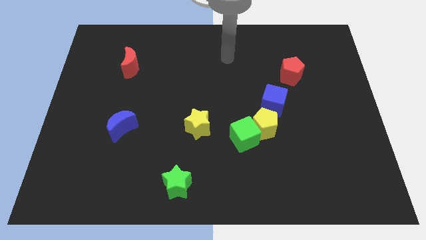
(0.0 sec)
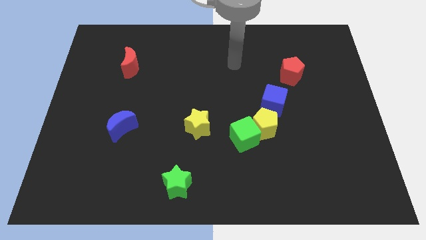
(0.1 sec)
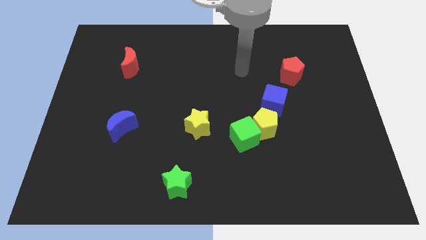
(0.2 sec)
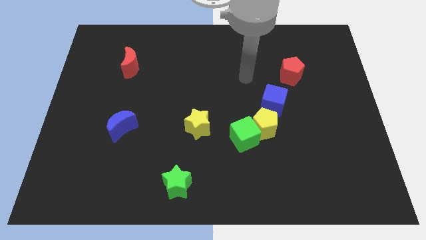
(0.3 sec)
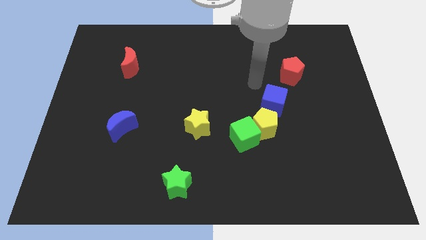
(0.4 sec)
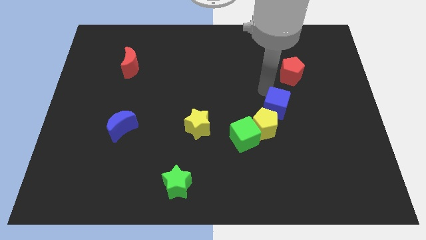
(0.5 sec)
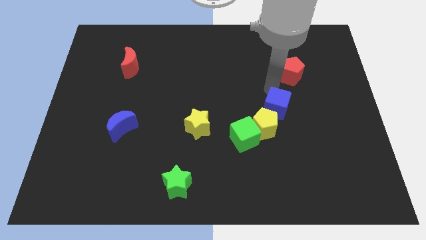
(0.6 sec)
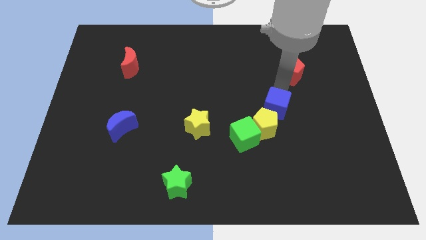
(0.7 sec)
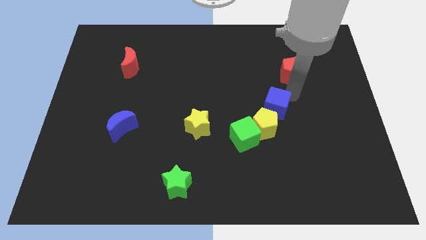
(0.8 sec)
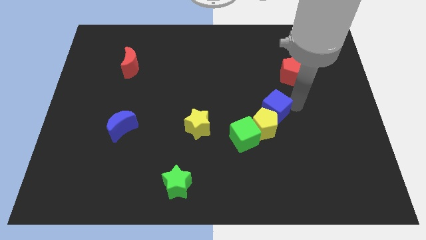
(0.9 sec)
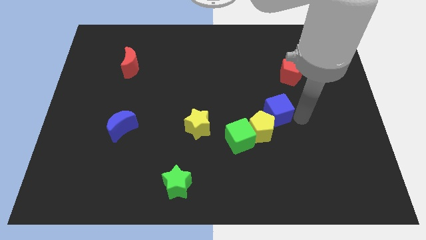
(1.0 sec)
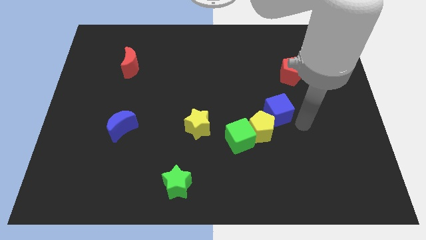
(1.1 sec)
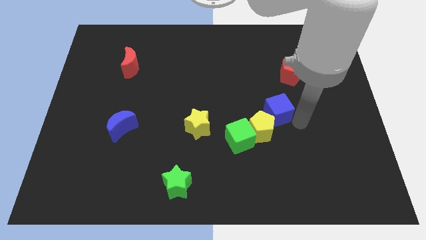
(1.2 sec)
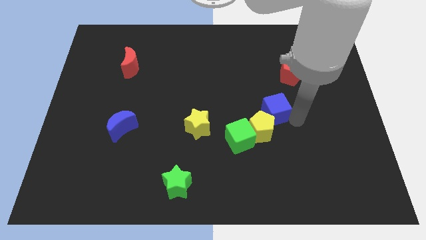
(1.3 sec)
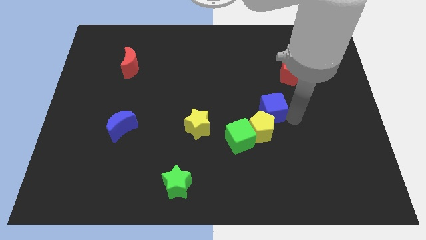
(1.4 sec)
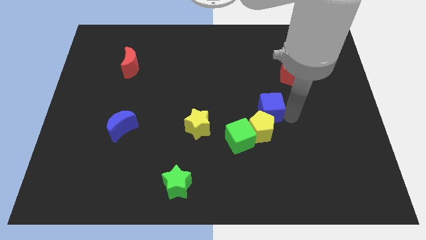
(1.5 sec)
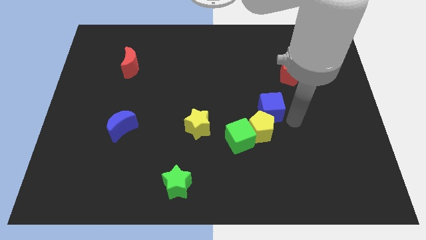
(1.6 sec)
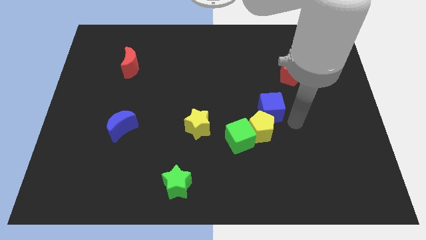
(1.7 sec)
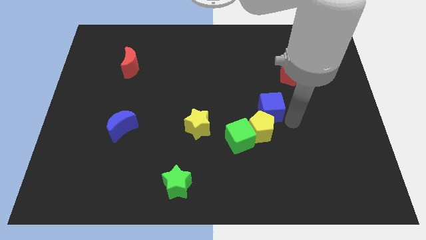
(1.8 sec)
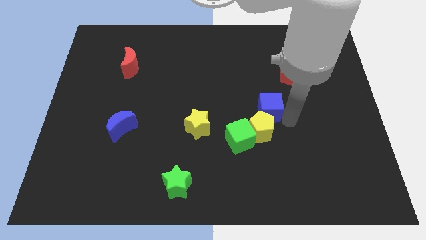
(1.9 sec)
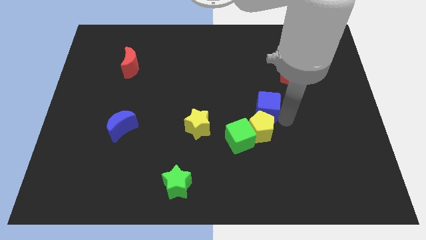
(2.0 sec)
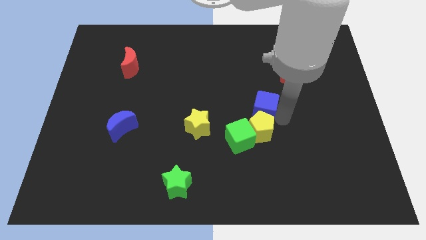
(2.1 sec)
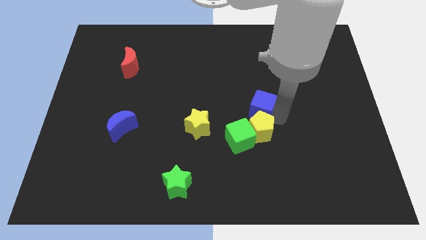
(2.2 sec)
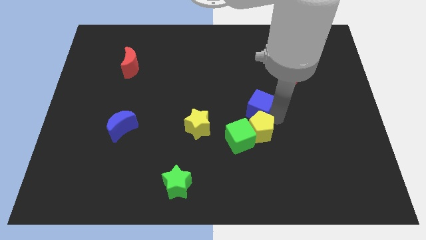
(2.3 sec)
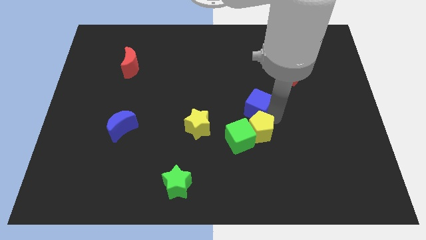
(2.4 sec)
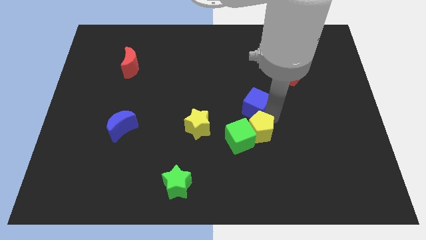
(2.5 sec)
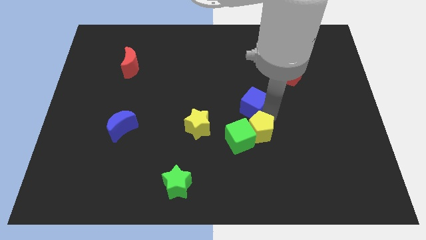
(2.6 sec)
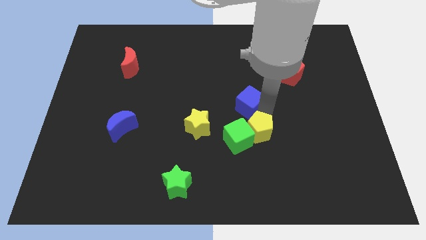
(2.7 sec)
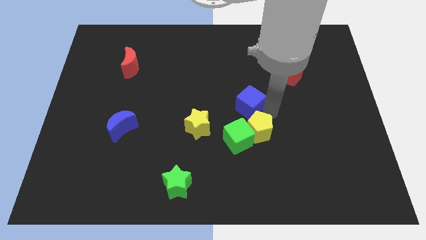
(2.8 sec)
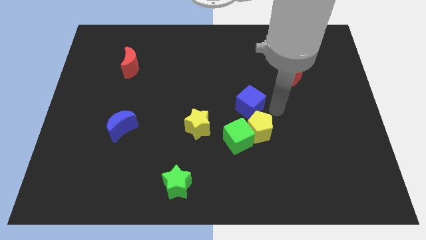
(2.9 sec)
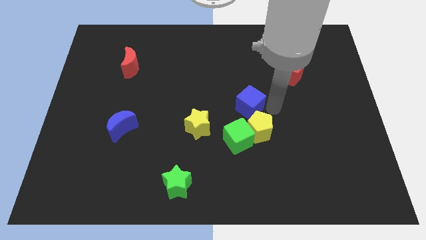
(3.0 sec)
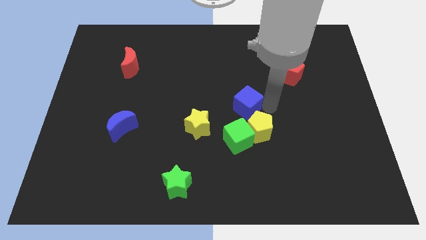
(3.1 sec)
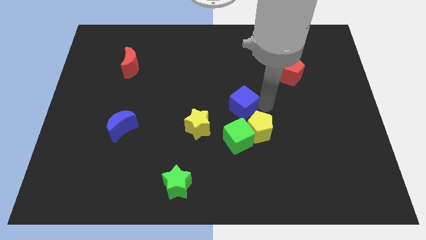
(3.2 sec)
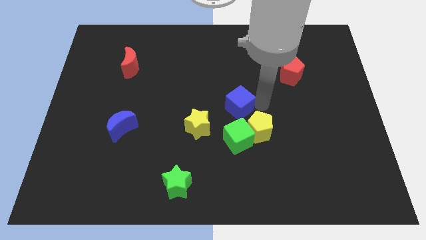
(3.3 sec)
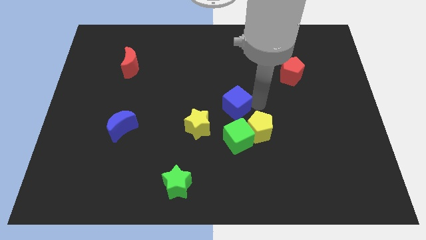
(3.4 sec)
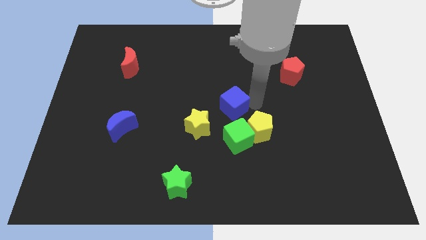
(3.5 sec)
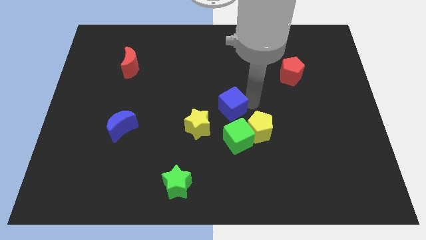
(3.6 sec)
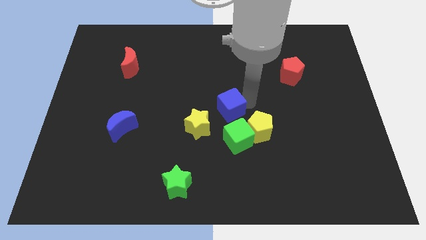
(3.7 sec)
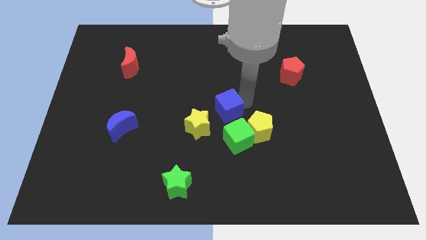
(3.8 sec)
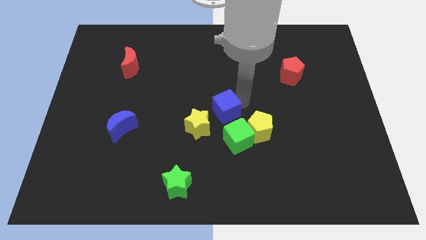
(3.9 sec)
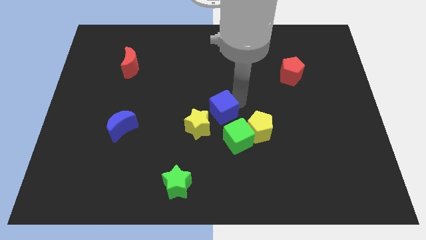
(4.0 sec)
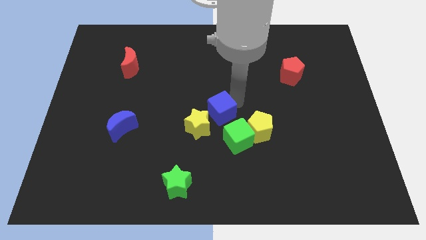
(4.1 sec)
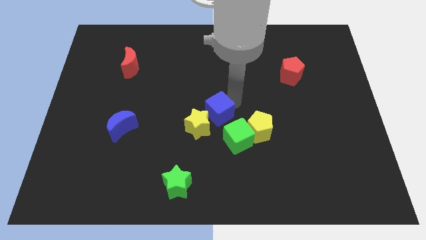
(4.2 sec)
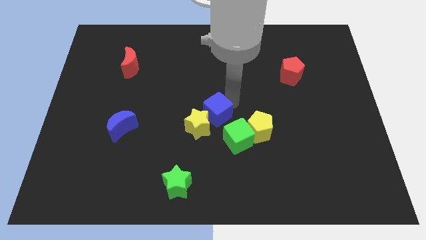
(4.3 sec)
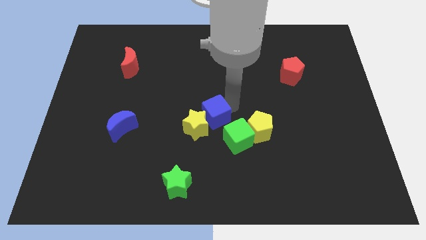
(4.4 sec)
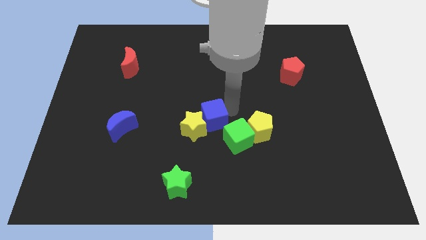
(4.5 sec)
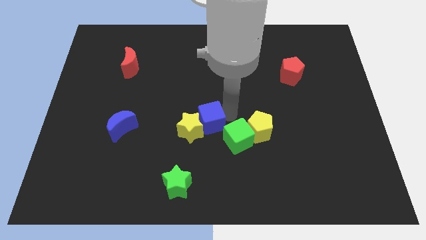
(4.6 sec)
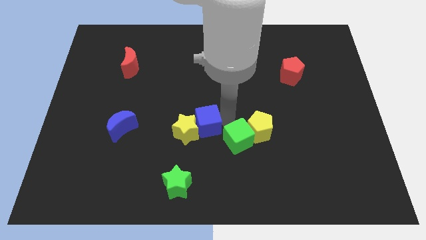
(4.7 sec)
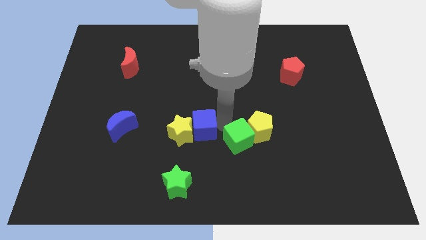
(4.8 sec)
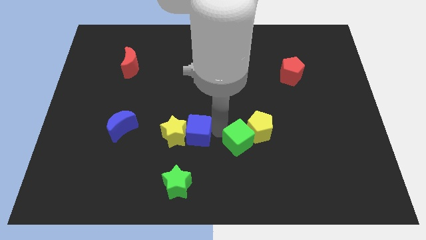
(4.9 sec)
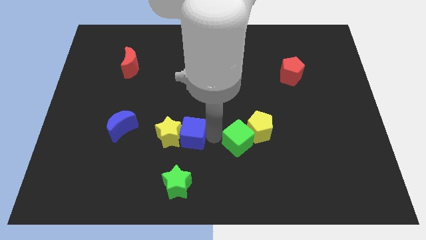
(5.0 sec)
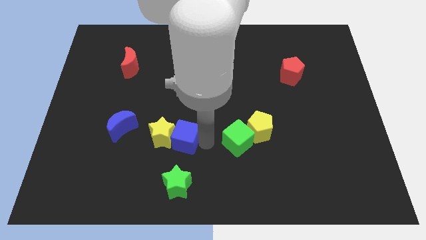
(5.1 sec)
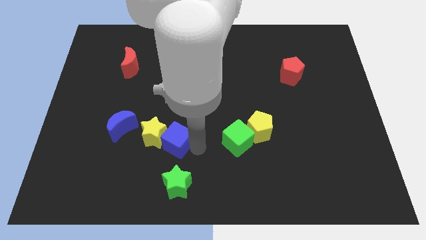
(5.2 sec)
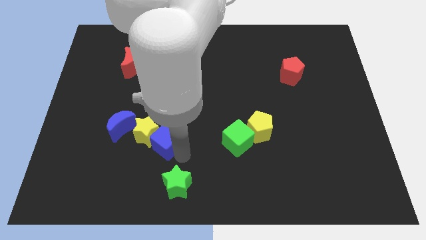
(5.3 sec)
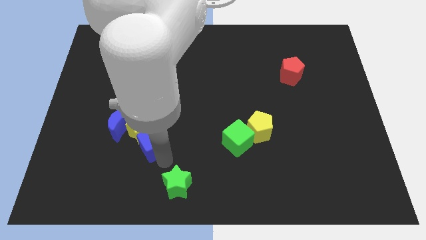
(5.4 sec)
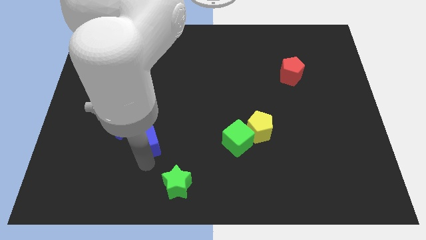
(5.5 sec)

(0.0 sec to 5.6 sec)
slide the blue cube left

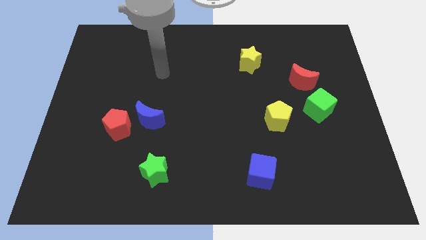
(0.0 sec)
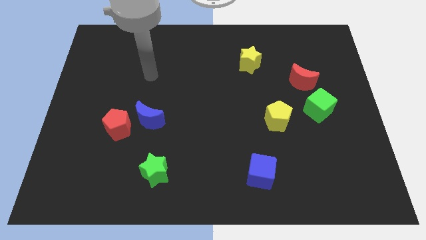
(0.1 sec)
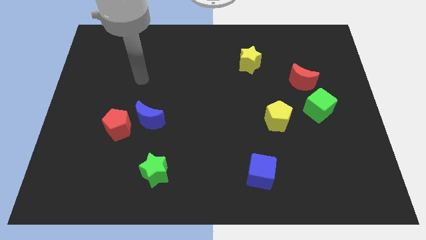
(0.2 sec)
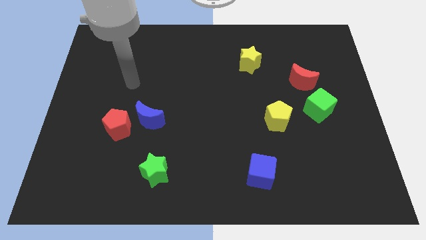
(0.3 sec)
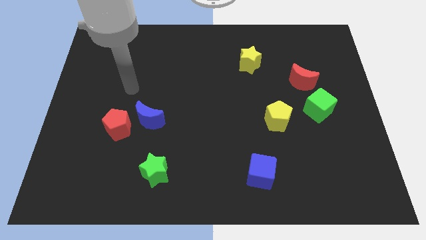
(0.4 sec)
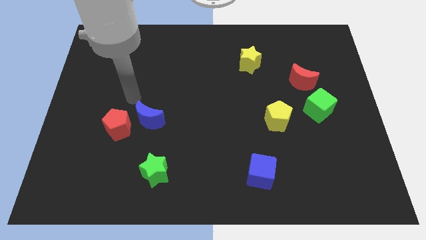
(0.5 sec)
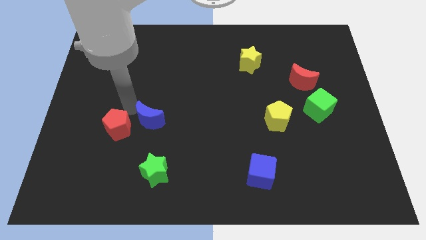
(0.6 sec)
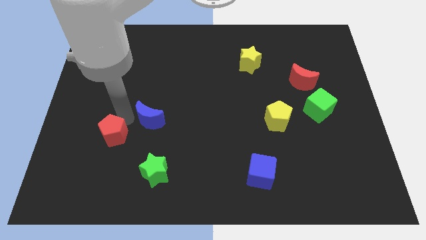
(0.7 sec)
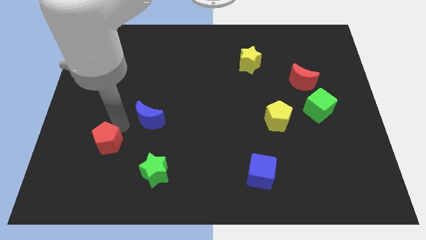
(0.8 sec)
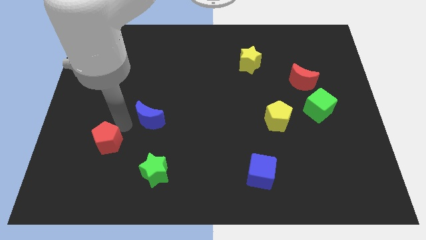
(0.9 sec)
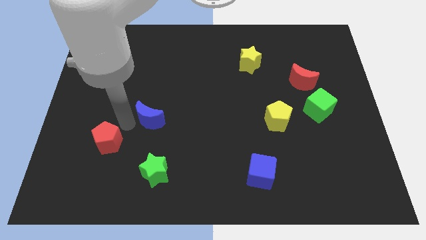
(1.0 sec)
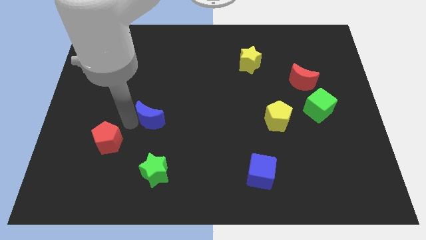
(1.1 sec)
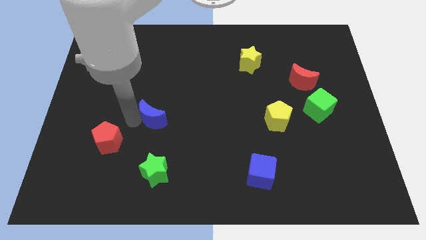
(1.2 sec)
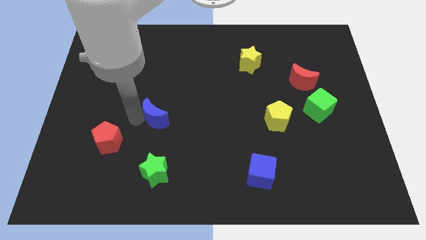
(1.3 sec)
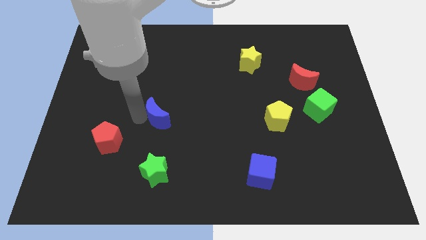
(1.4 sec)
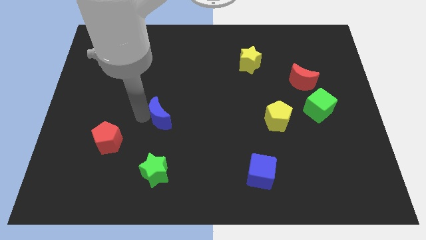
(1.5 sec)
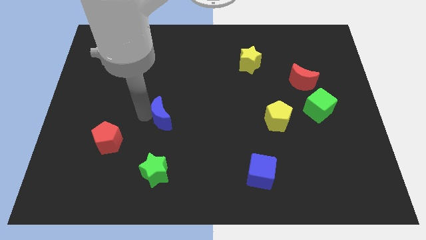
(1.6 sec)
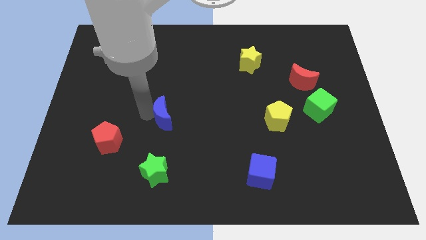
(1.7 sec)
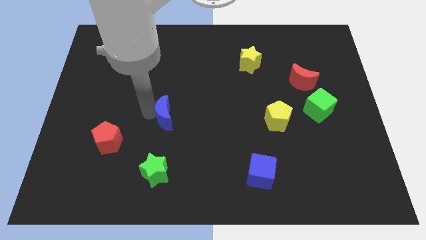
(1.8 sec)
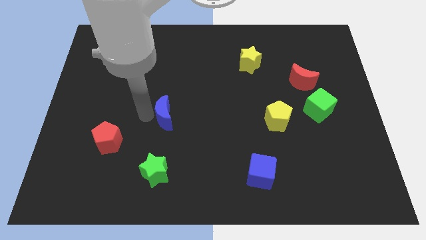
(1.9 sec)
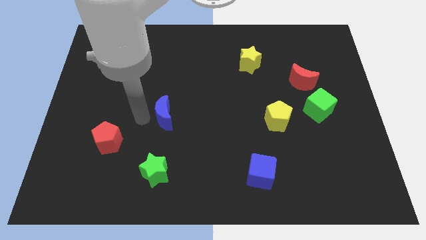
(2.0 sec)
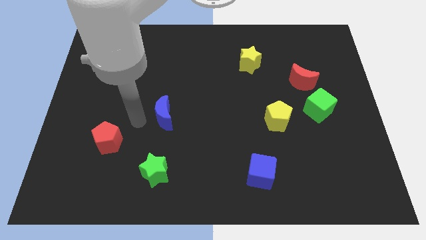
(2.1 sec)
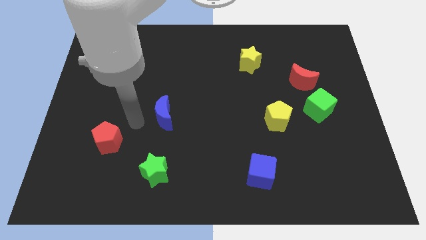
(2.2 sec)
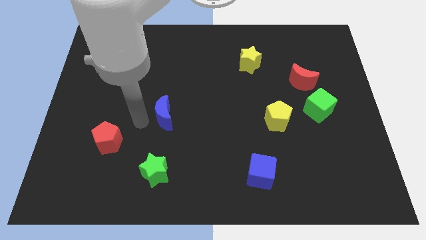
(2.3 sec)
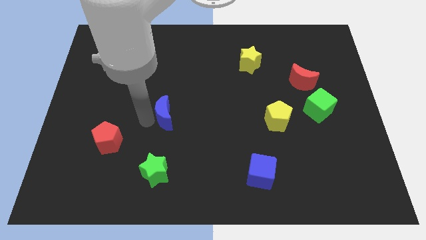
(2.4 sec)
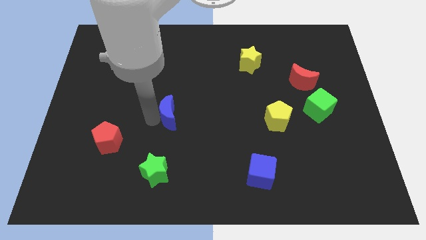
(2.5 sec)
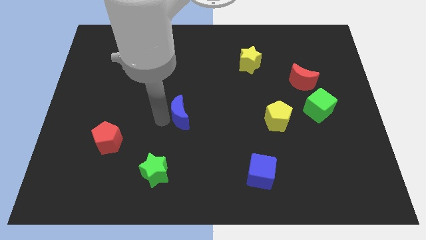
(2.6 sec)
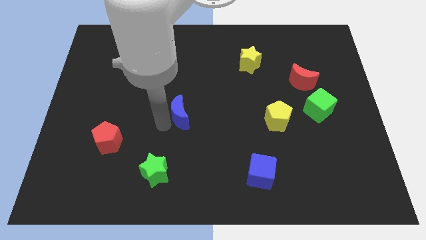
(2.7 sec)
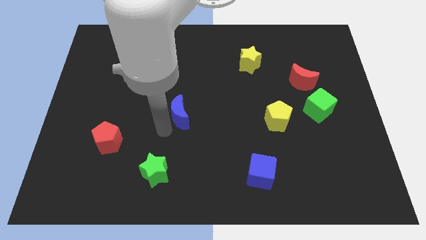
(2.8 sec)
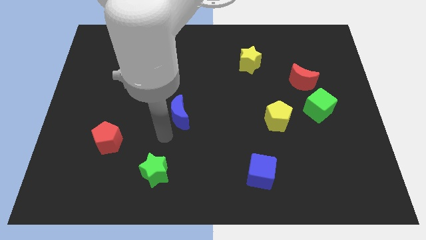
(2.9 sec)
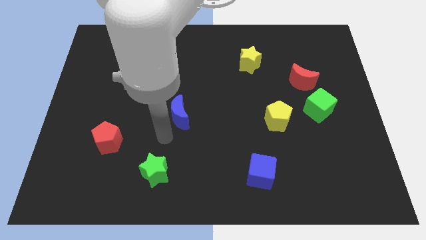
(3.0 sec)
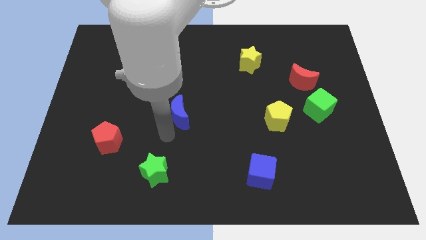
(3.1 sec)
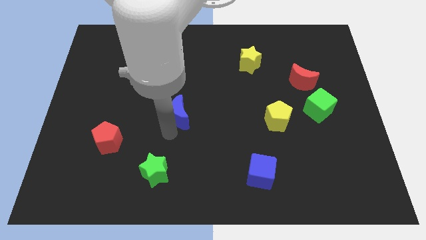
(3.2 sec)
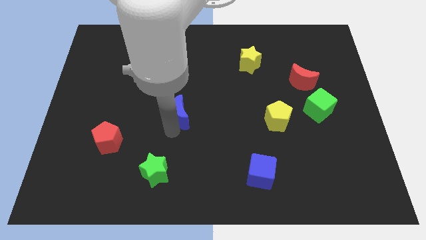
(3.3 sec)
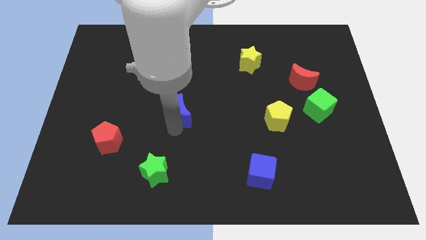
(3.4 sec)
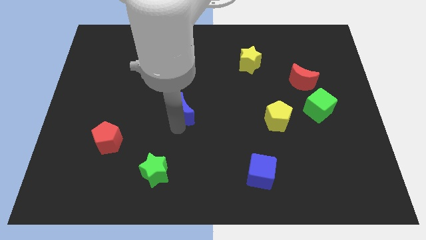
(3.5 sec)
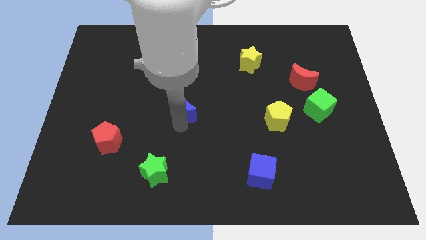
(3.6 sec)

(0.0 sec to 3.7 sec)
move the blue moon a little bit diagonally upwards and right
